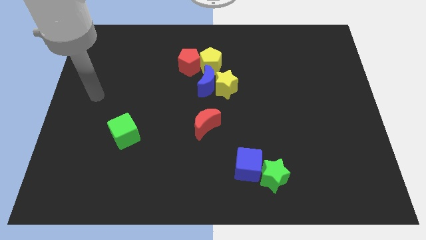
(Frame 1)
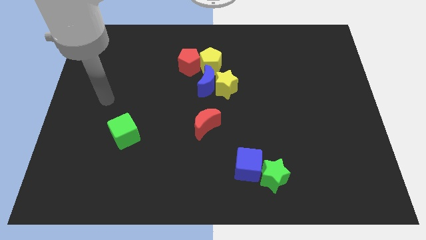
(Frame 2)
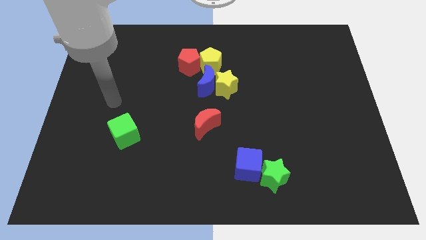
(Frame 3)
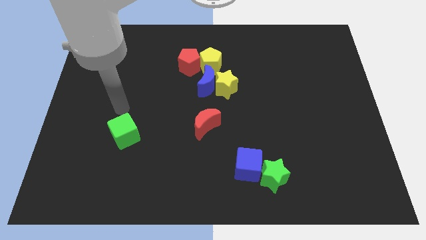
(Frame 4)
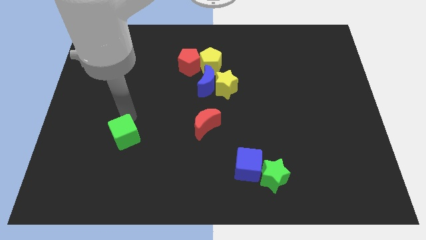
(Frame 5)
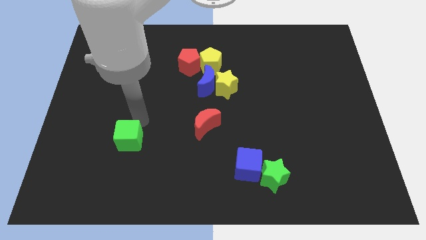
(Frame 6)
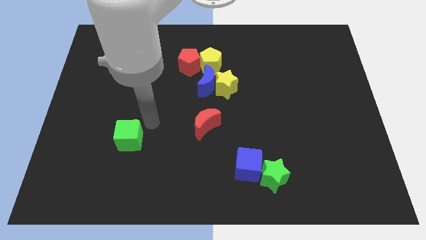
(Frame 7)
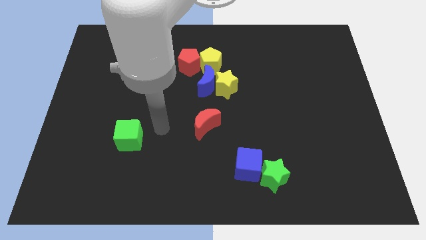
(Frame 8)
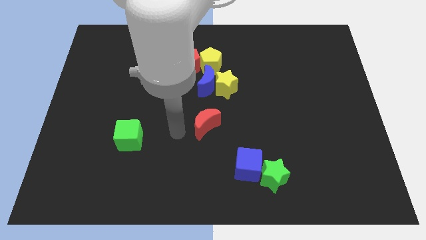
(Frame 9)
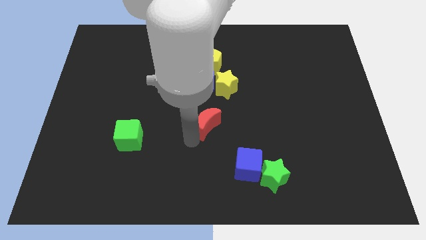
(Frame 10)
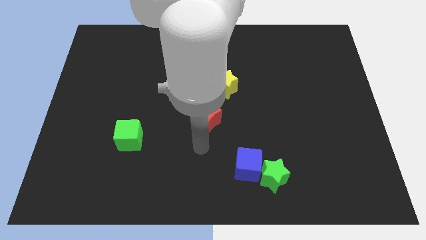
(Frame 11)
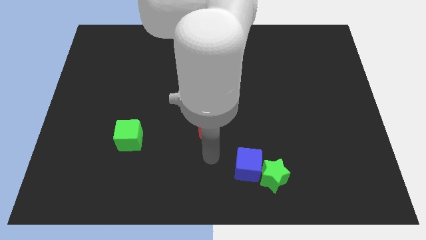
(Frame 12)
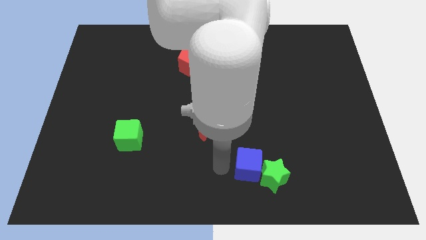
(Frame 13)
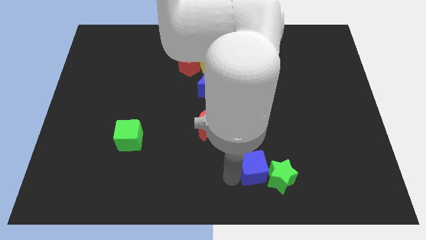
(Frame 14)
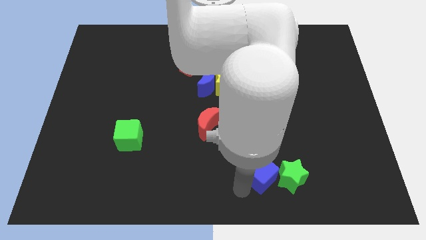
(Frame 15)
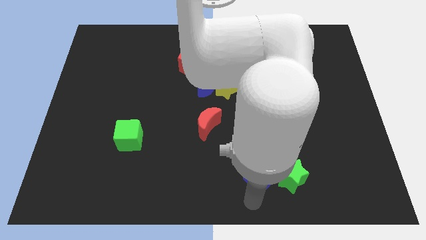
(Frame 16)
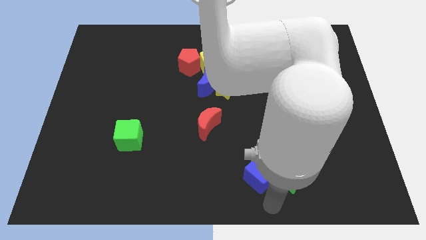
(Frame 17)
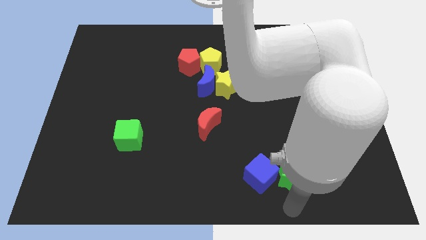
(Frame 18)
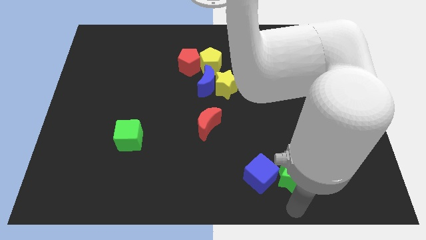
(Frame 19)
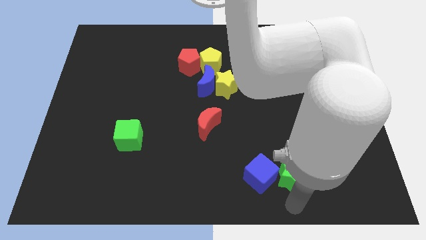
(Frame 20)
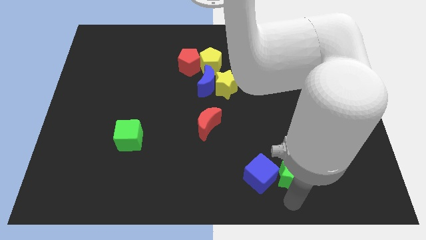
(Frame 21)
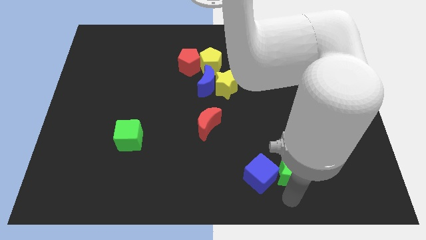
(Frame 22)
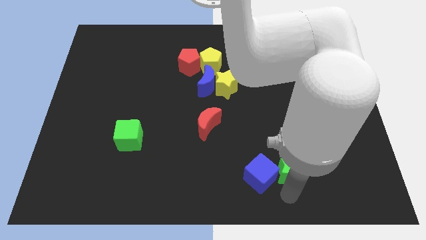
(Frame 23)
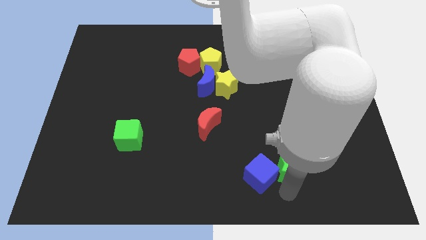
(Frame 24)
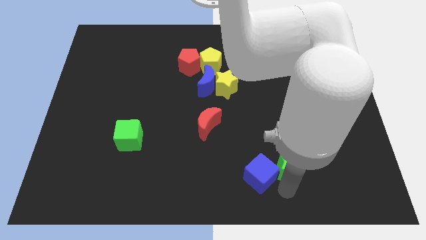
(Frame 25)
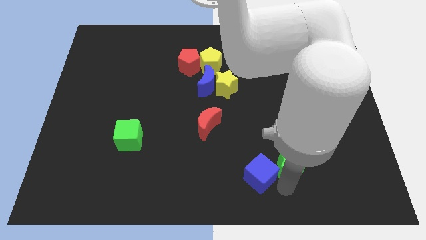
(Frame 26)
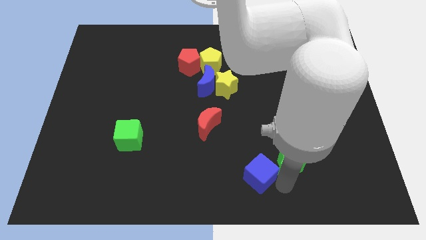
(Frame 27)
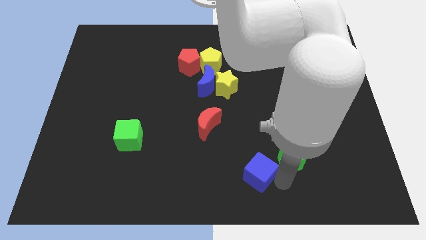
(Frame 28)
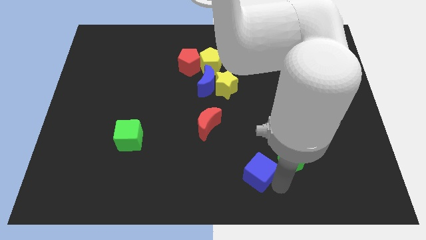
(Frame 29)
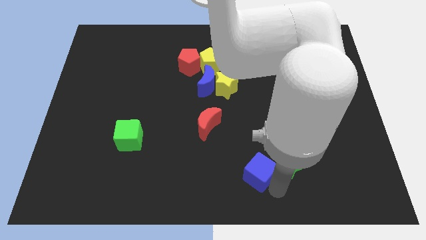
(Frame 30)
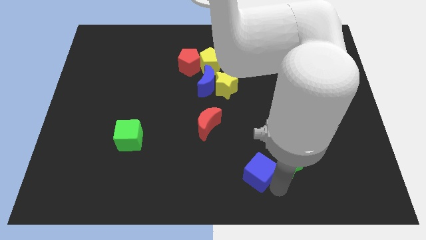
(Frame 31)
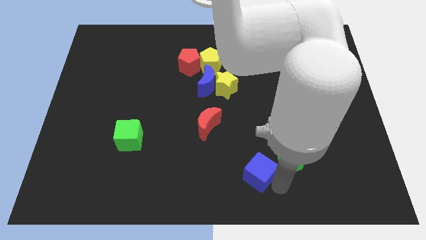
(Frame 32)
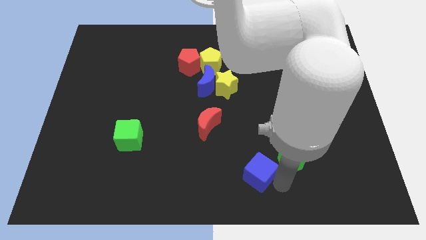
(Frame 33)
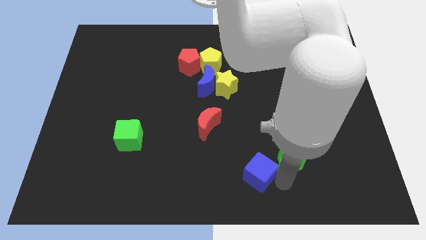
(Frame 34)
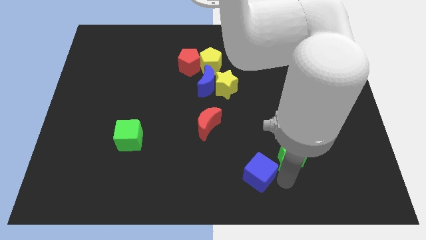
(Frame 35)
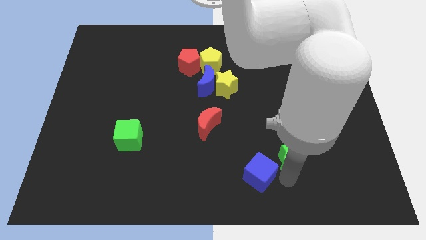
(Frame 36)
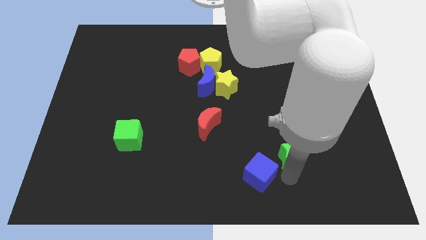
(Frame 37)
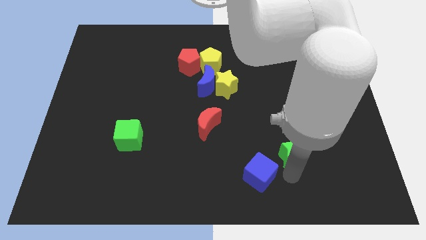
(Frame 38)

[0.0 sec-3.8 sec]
slide the green star diagonally upwards and right a bit

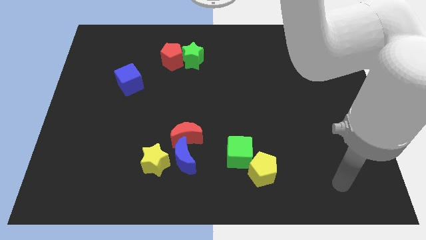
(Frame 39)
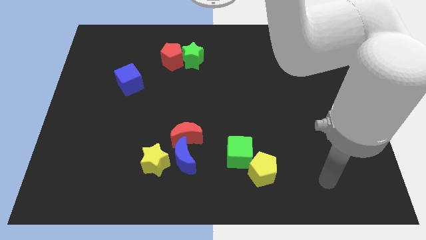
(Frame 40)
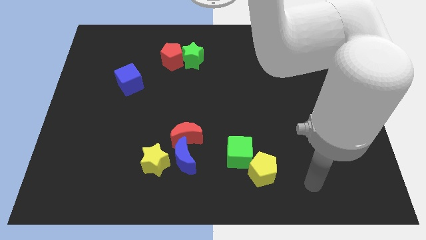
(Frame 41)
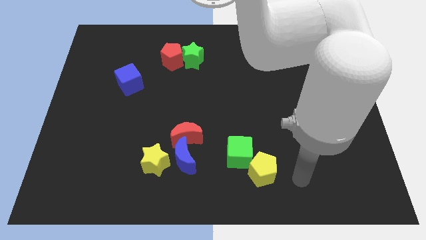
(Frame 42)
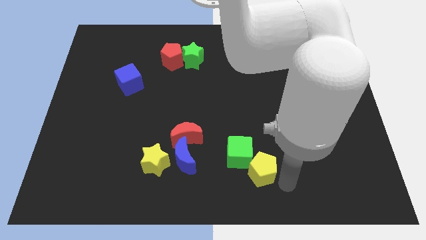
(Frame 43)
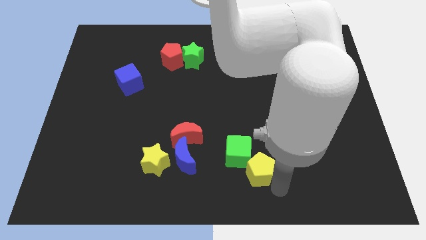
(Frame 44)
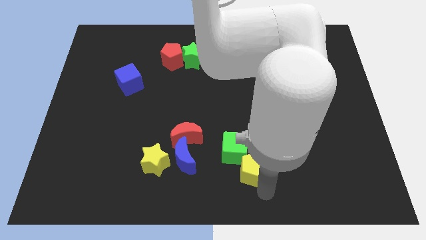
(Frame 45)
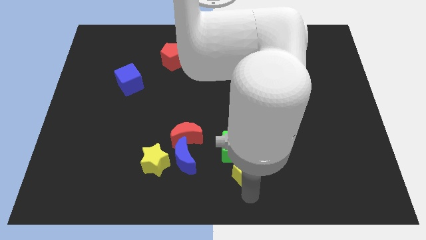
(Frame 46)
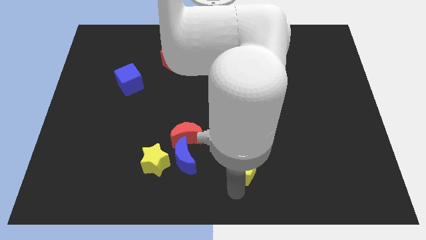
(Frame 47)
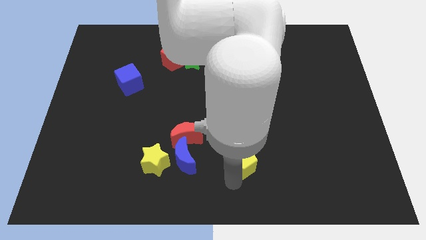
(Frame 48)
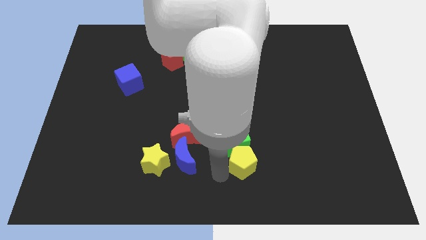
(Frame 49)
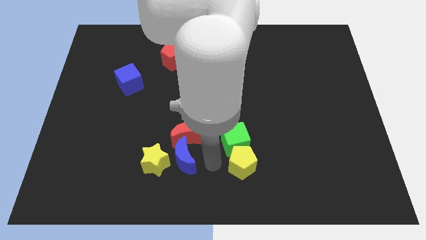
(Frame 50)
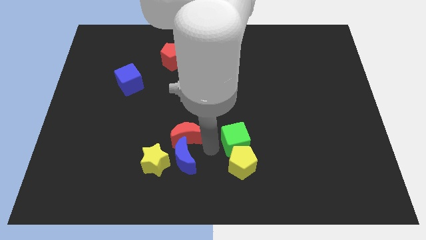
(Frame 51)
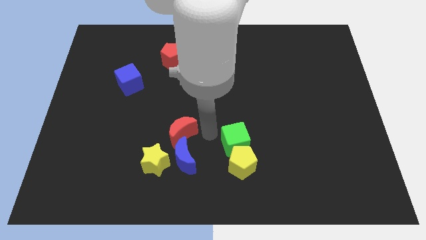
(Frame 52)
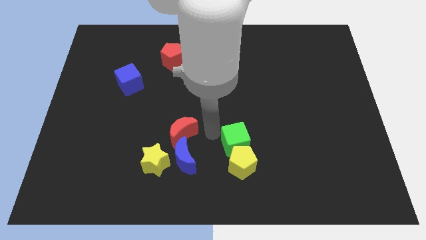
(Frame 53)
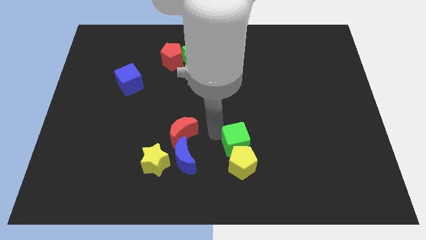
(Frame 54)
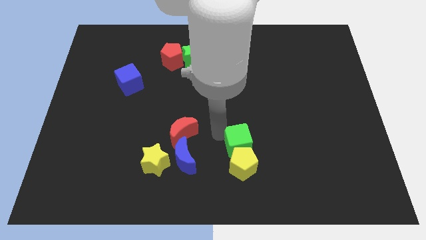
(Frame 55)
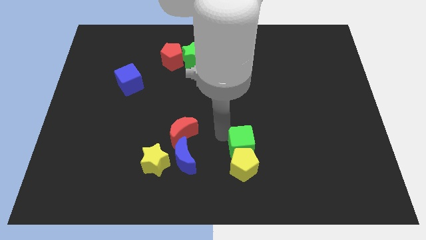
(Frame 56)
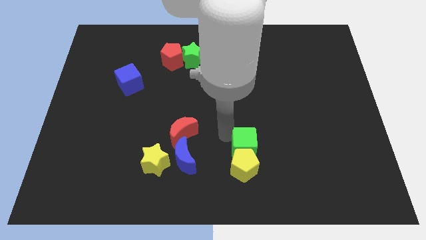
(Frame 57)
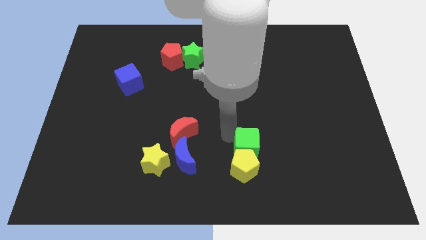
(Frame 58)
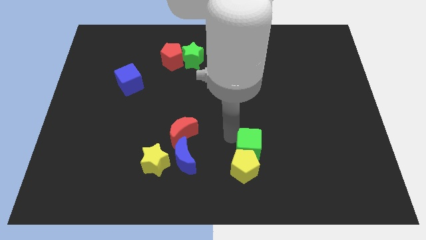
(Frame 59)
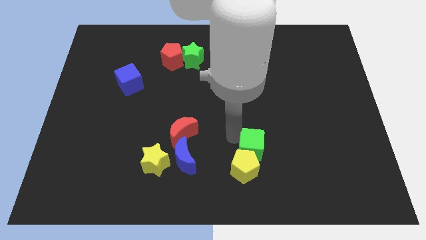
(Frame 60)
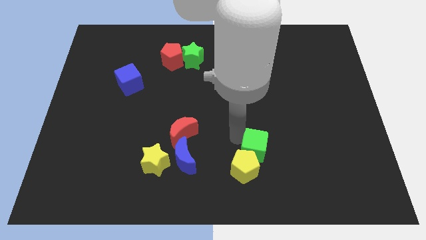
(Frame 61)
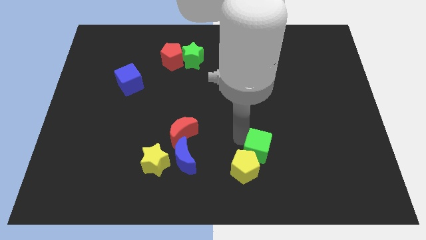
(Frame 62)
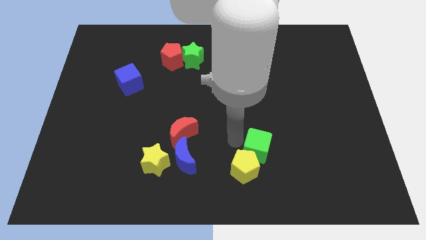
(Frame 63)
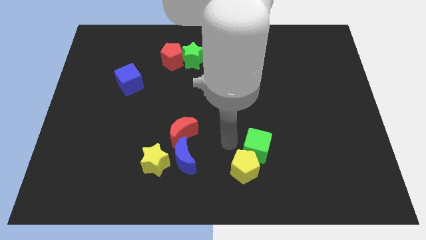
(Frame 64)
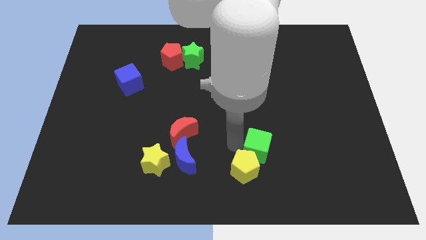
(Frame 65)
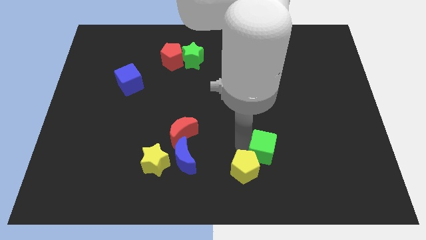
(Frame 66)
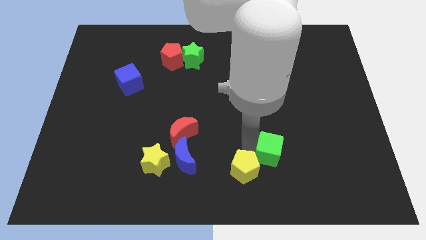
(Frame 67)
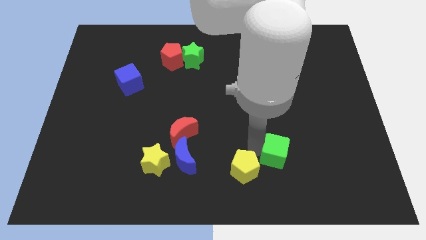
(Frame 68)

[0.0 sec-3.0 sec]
slightly slide the green cube right

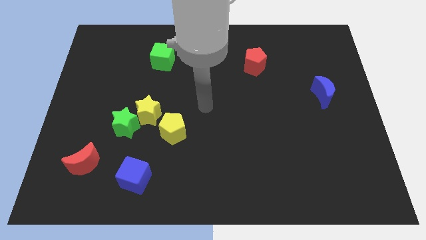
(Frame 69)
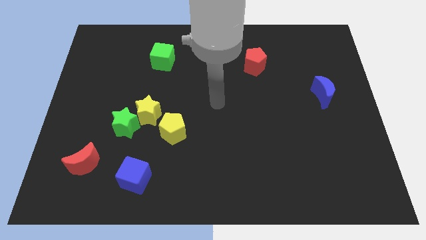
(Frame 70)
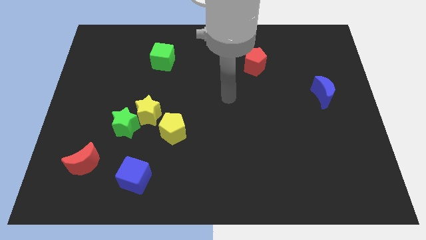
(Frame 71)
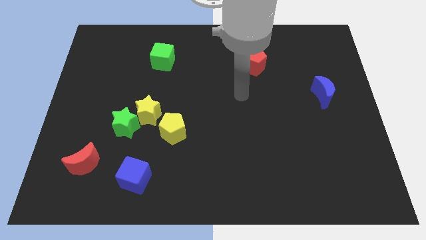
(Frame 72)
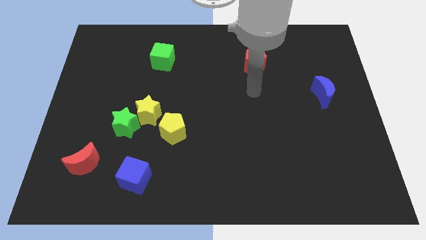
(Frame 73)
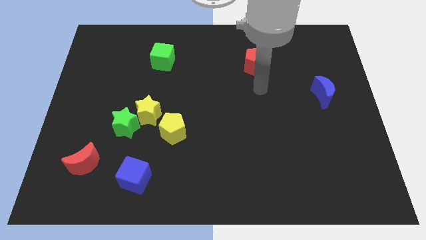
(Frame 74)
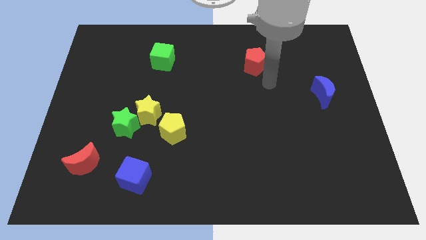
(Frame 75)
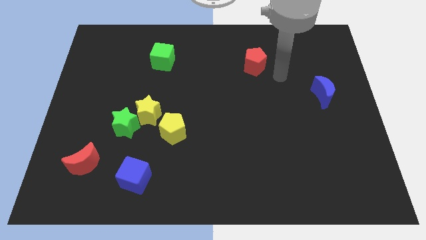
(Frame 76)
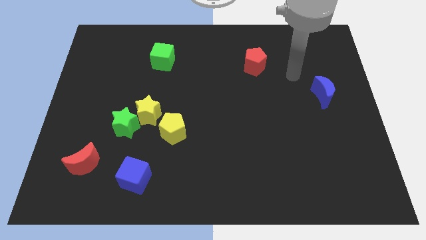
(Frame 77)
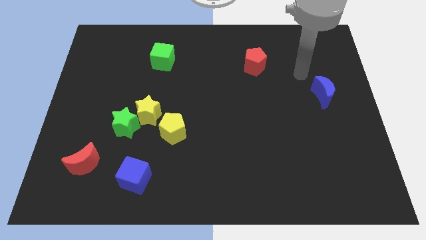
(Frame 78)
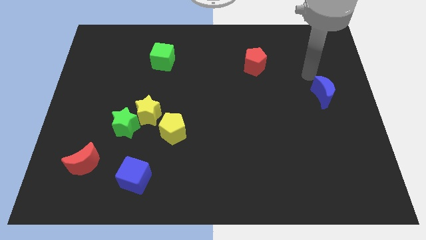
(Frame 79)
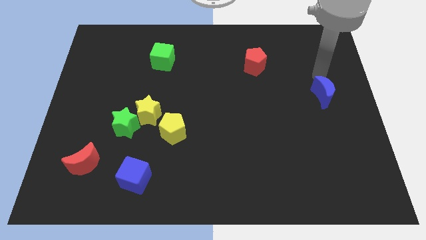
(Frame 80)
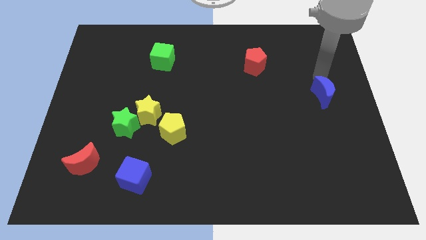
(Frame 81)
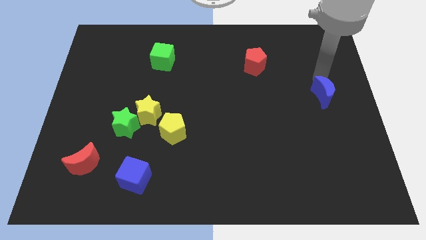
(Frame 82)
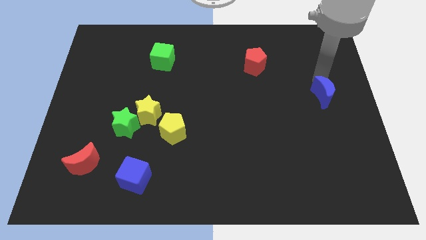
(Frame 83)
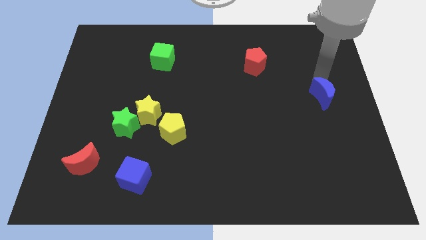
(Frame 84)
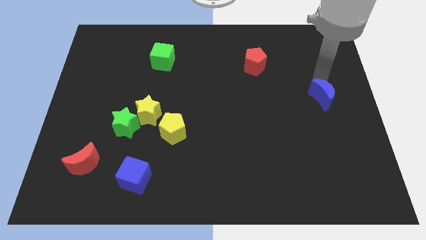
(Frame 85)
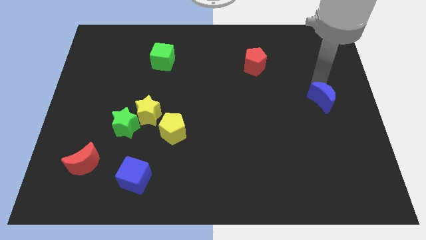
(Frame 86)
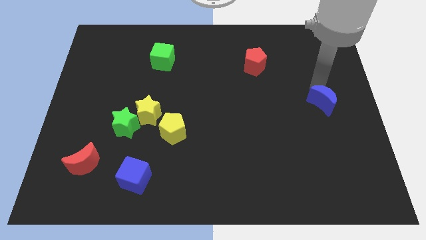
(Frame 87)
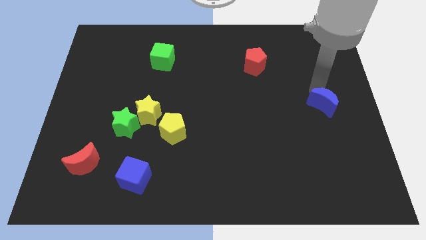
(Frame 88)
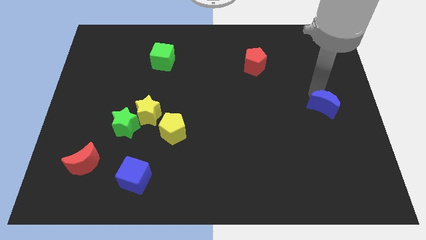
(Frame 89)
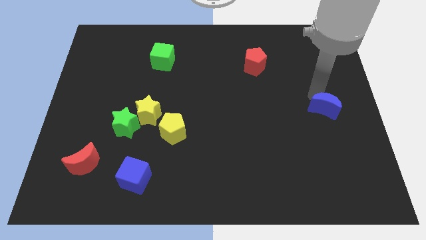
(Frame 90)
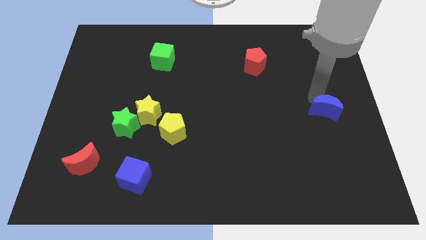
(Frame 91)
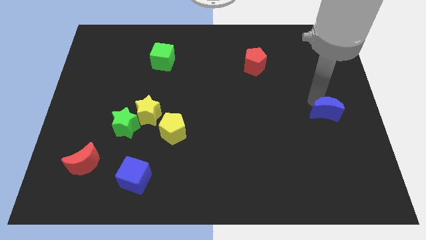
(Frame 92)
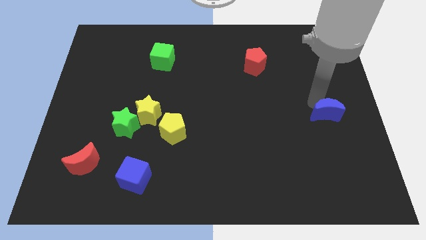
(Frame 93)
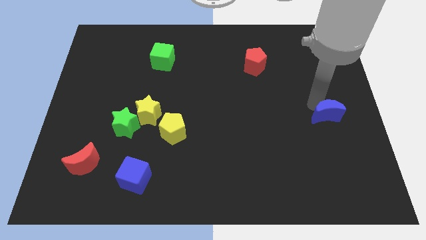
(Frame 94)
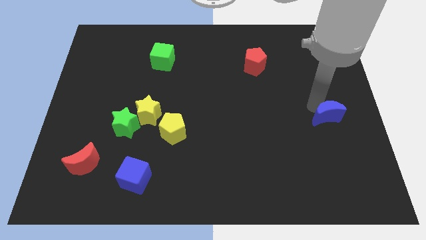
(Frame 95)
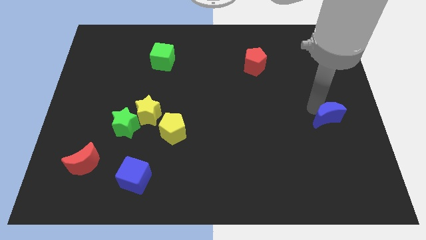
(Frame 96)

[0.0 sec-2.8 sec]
slide the blue moon downwards a bit
